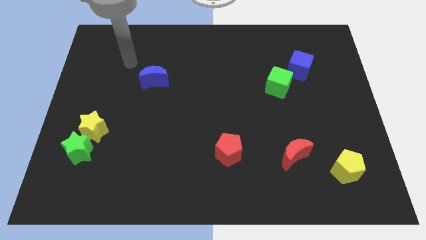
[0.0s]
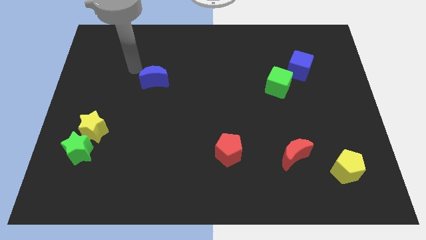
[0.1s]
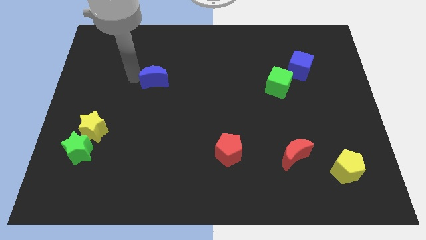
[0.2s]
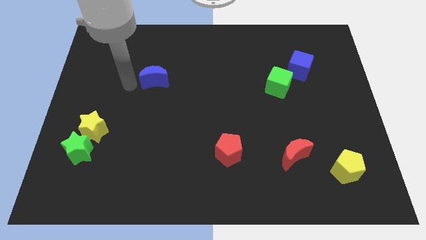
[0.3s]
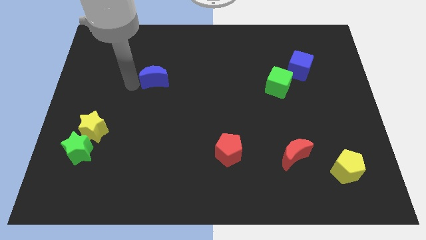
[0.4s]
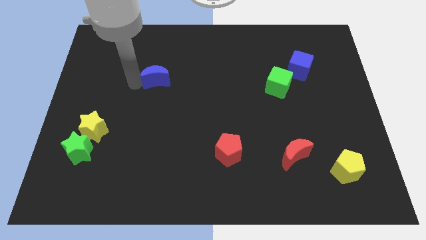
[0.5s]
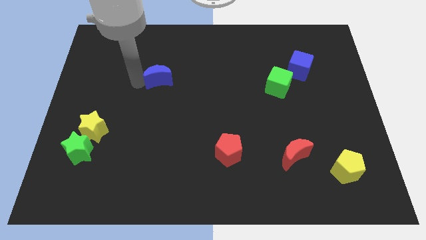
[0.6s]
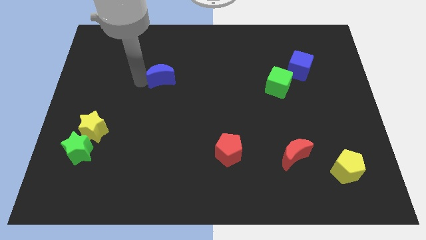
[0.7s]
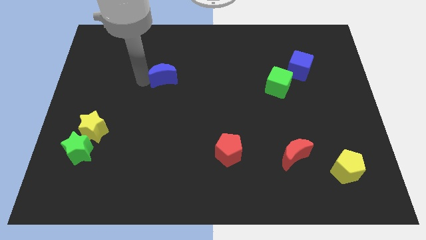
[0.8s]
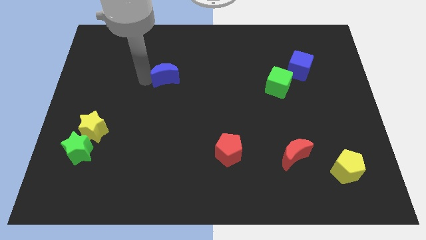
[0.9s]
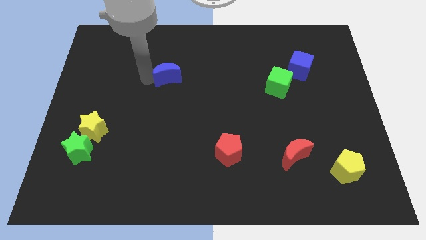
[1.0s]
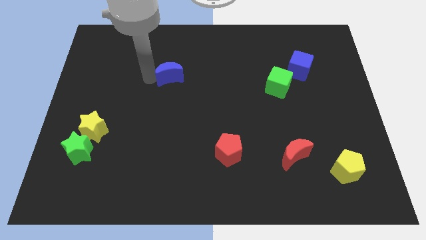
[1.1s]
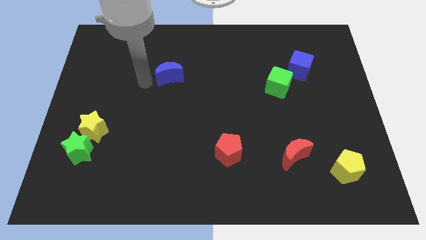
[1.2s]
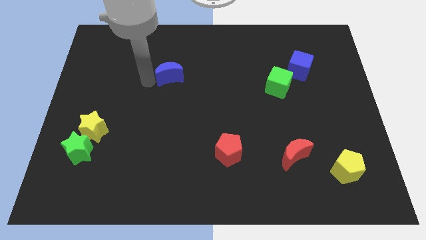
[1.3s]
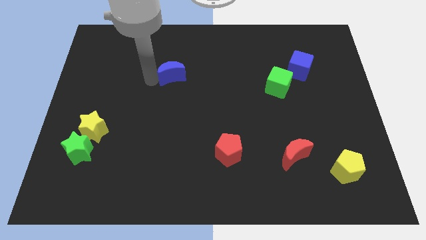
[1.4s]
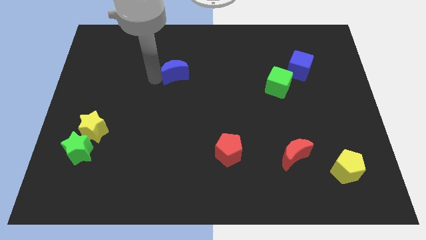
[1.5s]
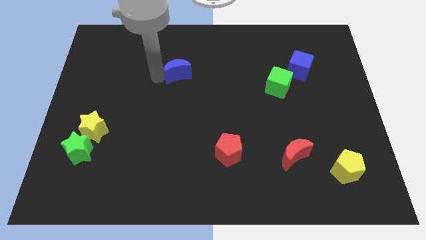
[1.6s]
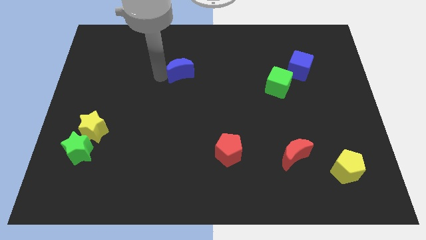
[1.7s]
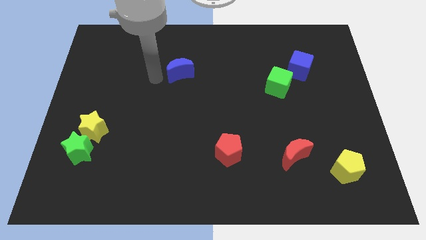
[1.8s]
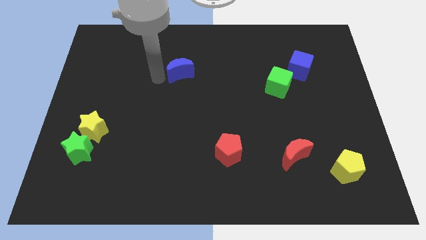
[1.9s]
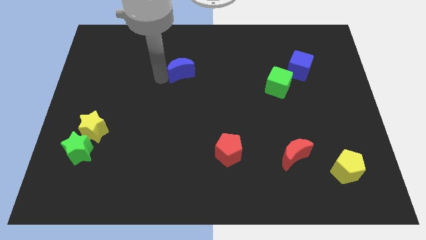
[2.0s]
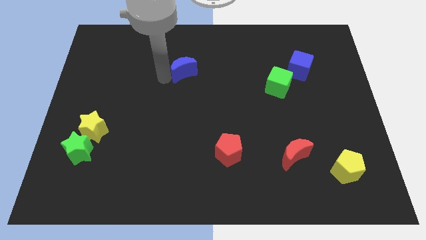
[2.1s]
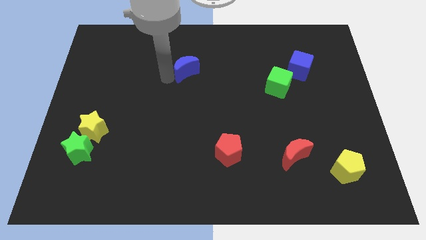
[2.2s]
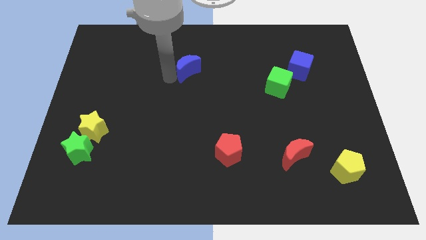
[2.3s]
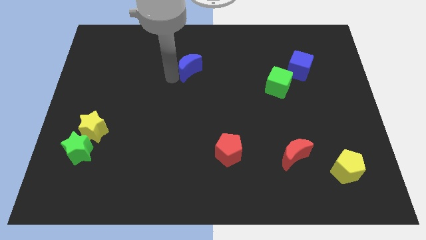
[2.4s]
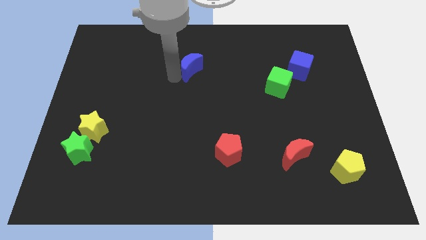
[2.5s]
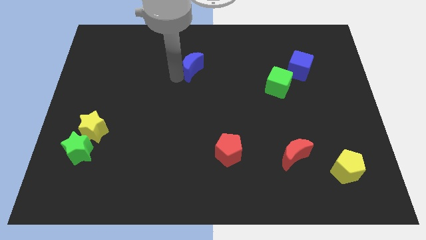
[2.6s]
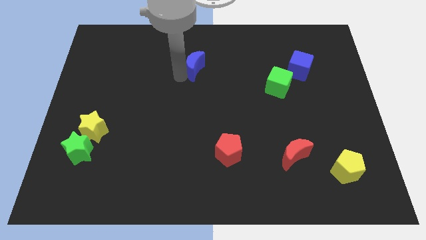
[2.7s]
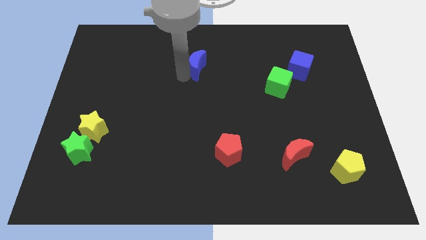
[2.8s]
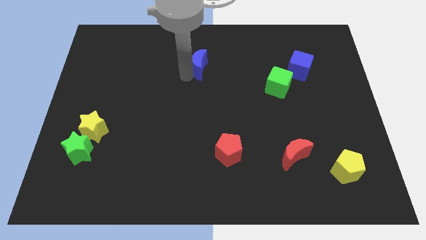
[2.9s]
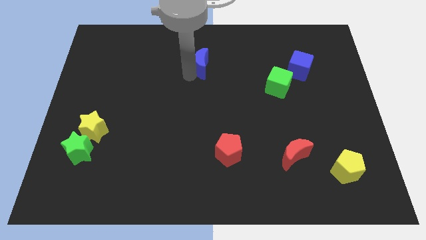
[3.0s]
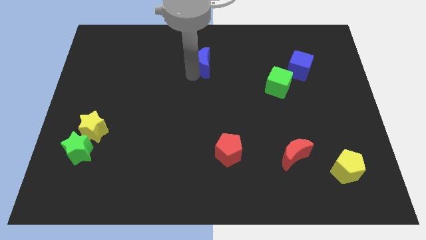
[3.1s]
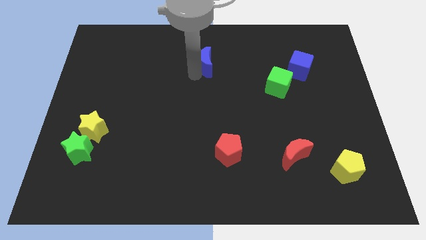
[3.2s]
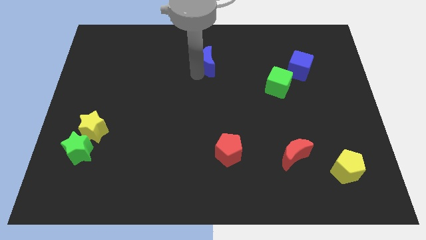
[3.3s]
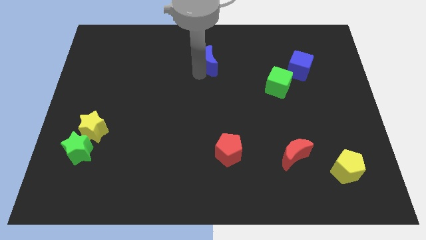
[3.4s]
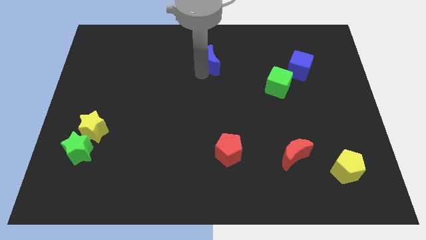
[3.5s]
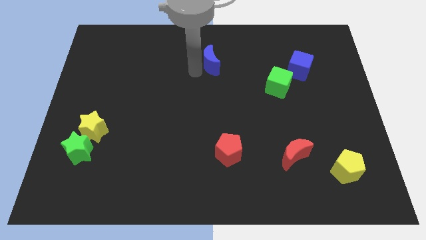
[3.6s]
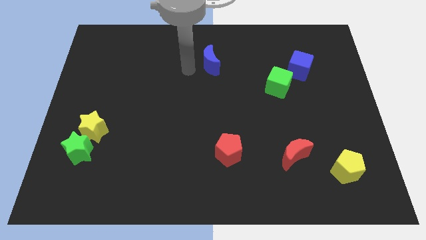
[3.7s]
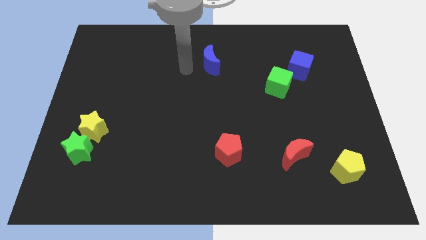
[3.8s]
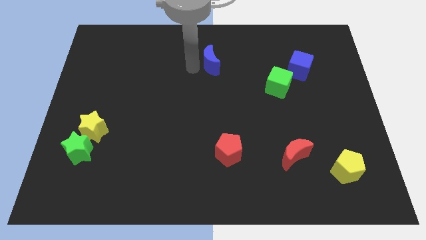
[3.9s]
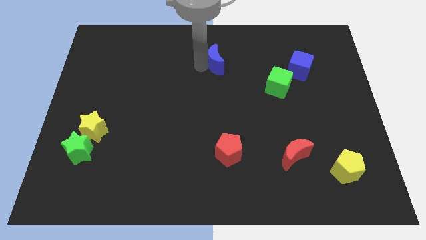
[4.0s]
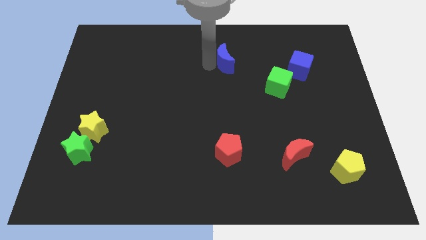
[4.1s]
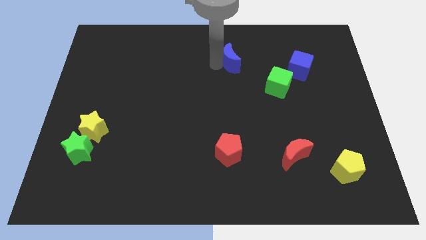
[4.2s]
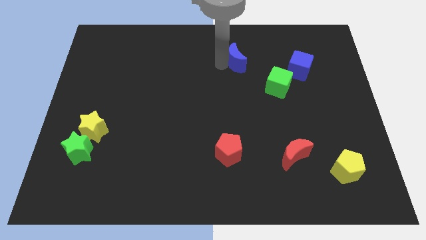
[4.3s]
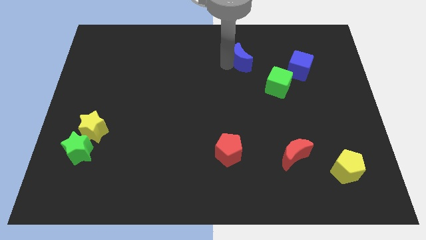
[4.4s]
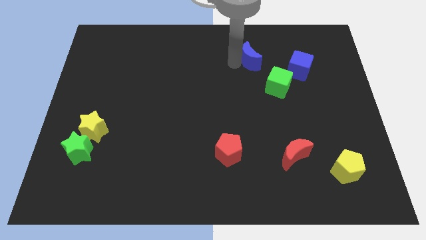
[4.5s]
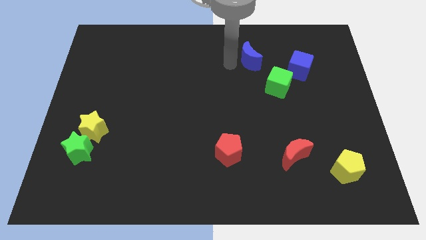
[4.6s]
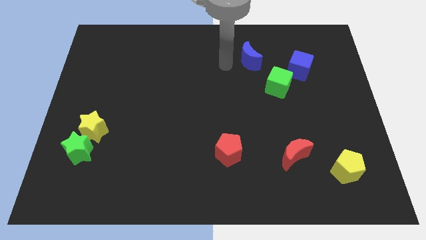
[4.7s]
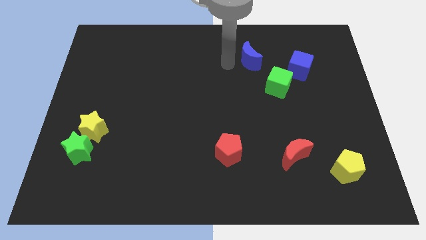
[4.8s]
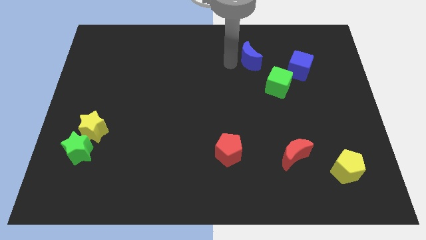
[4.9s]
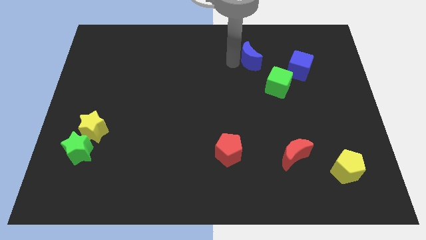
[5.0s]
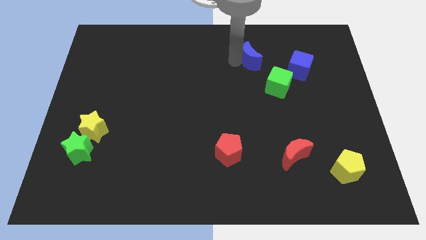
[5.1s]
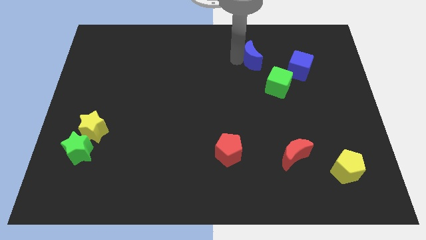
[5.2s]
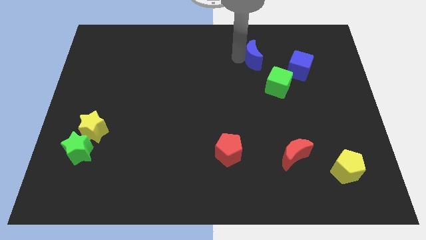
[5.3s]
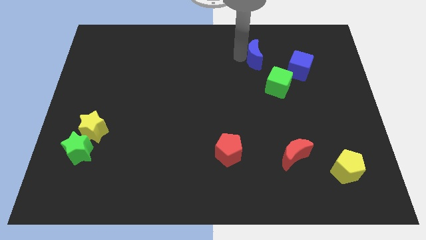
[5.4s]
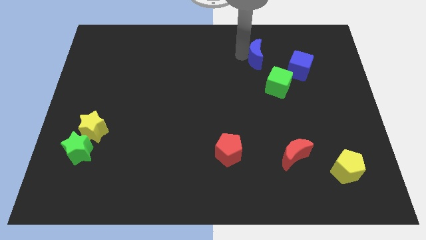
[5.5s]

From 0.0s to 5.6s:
move the blue moon to the top of the green cube

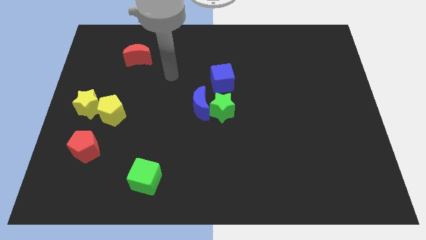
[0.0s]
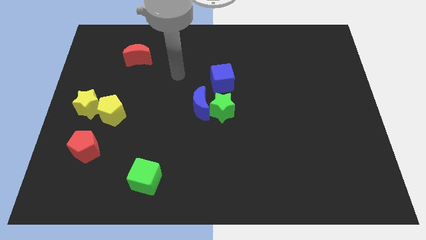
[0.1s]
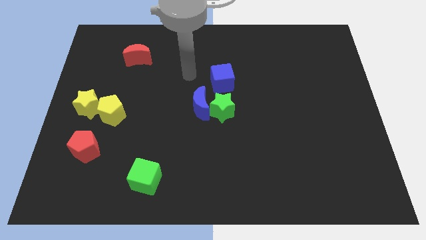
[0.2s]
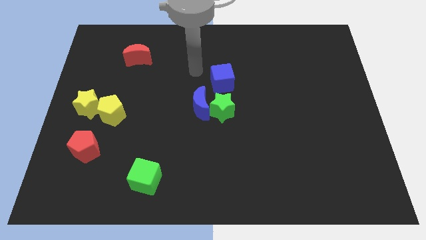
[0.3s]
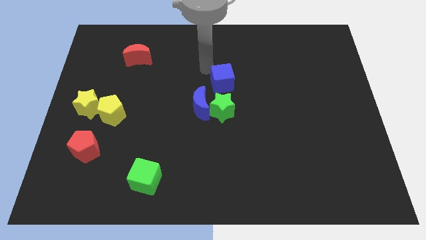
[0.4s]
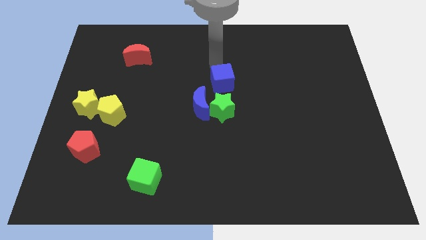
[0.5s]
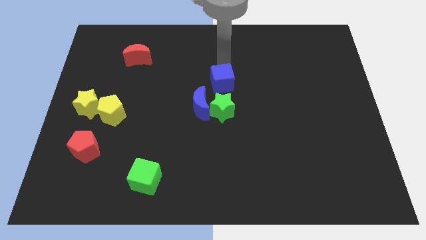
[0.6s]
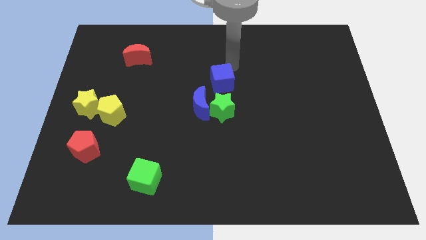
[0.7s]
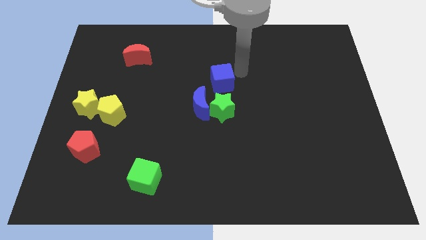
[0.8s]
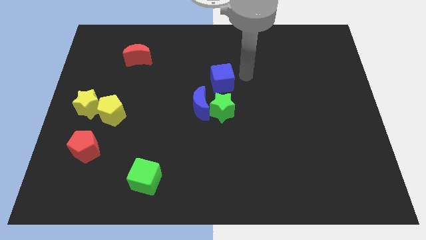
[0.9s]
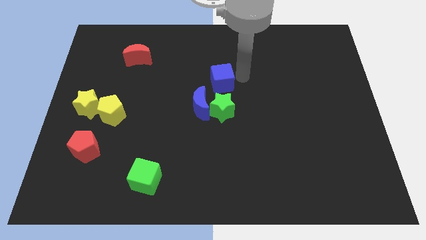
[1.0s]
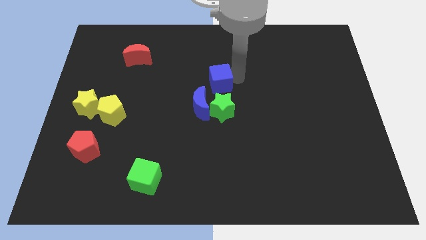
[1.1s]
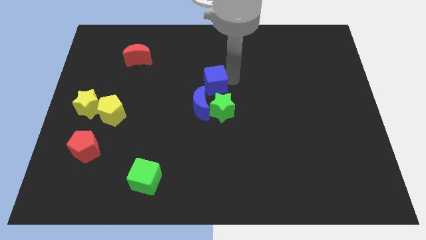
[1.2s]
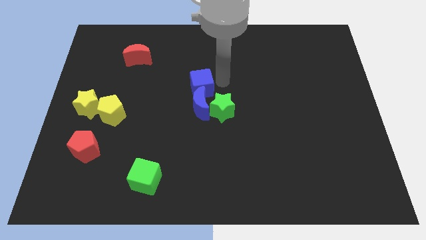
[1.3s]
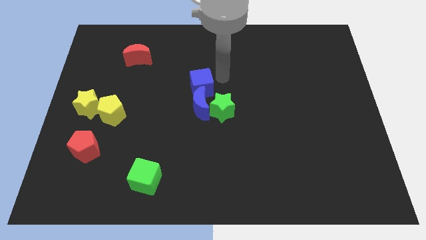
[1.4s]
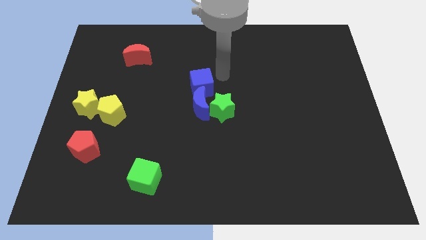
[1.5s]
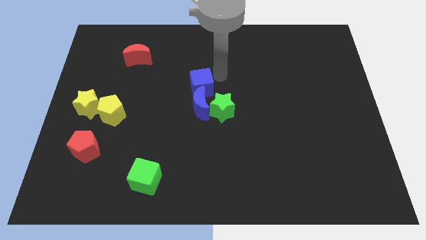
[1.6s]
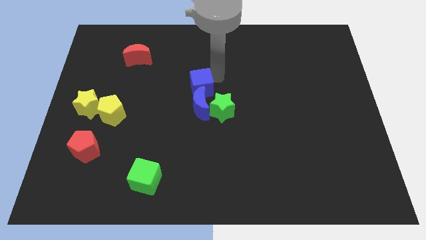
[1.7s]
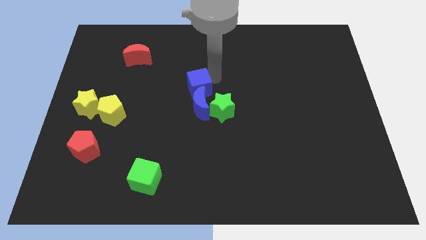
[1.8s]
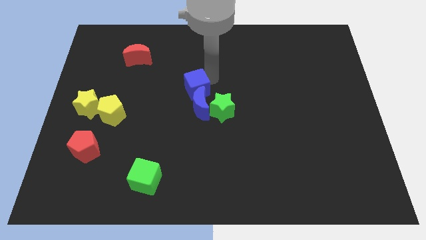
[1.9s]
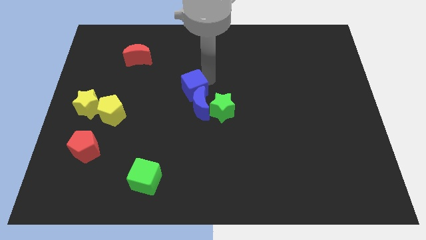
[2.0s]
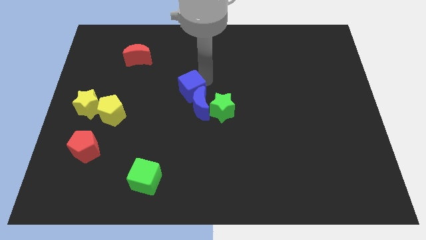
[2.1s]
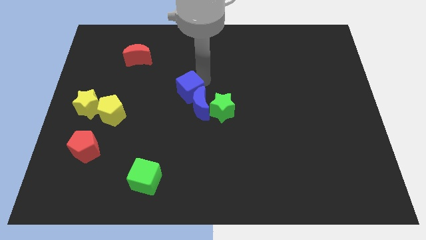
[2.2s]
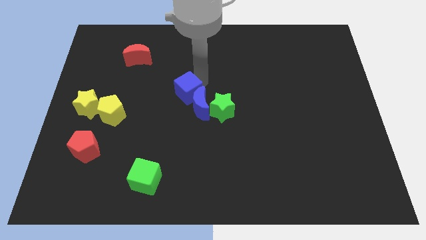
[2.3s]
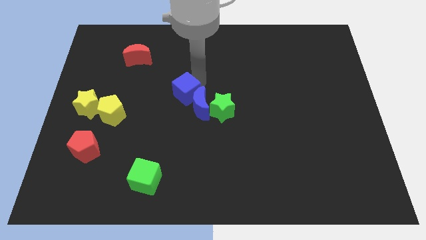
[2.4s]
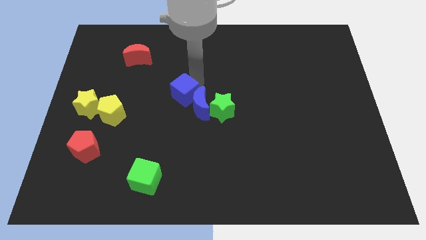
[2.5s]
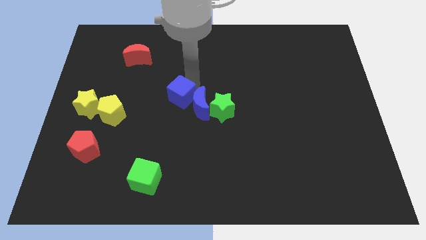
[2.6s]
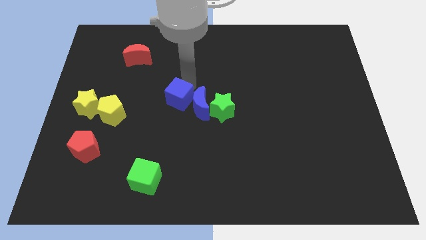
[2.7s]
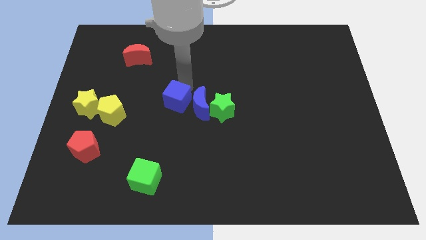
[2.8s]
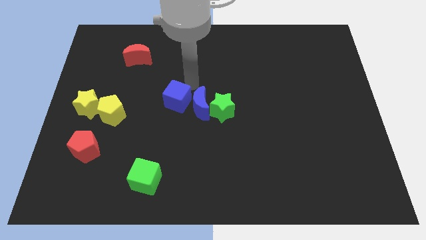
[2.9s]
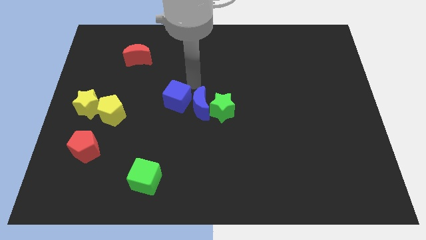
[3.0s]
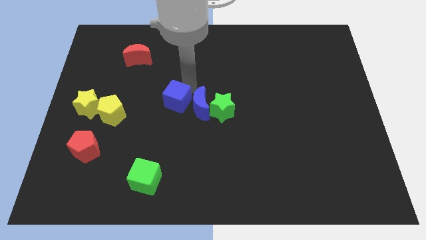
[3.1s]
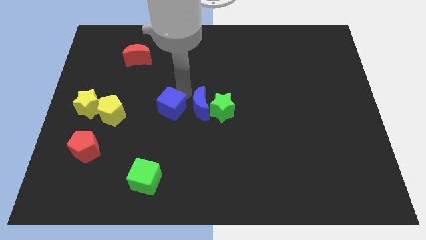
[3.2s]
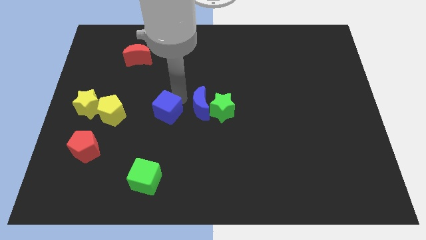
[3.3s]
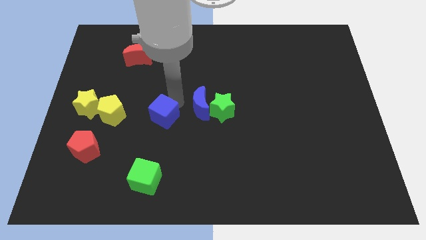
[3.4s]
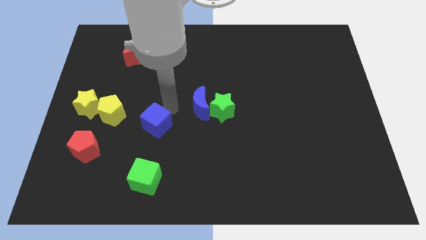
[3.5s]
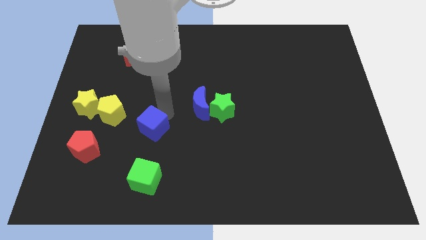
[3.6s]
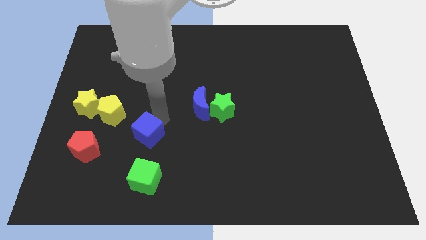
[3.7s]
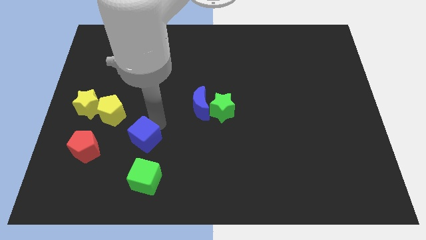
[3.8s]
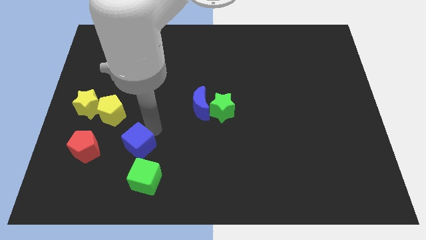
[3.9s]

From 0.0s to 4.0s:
move the blue cube to the top left of the green cube
